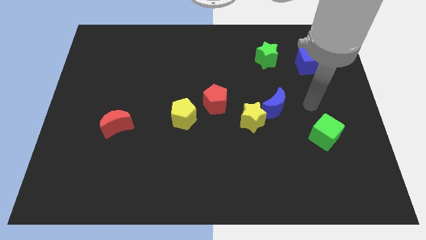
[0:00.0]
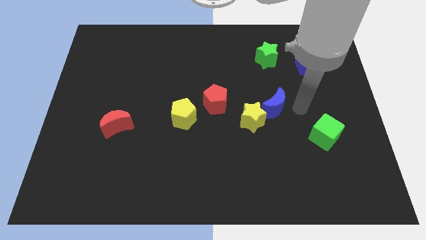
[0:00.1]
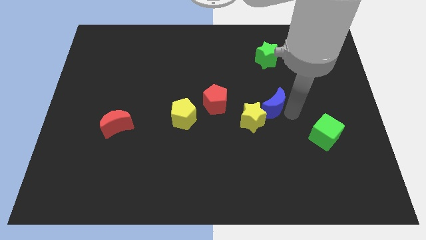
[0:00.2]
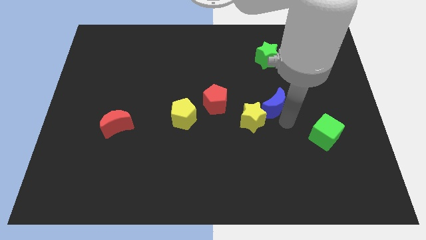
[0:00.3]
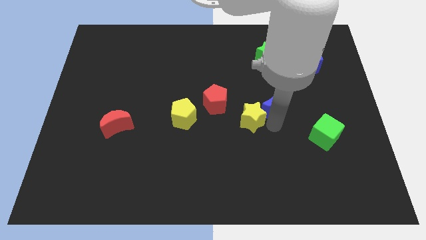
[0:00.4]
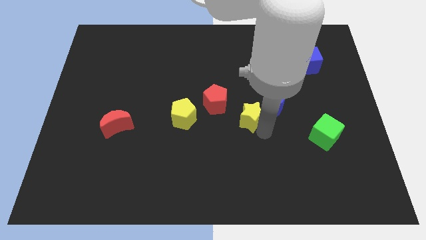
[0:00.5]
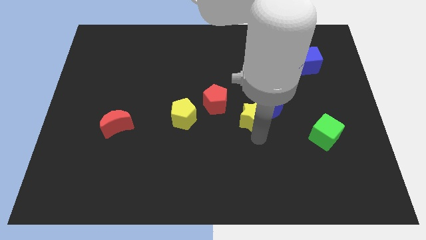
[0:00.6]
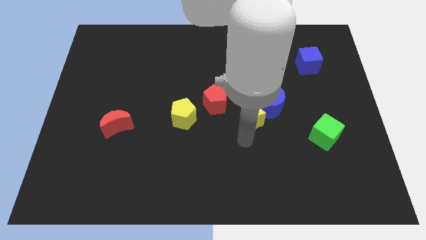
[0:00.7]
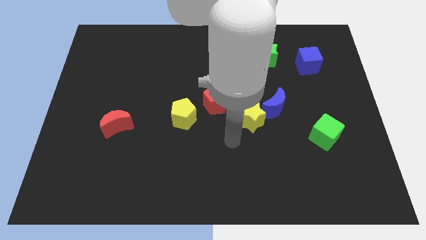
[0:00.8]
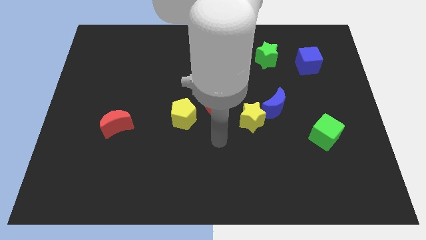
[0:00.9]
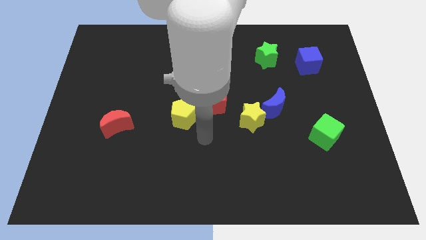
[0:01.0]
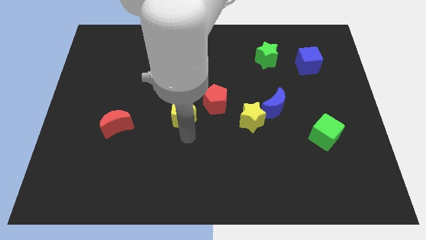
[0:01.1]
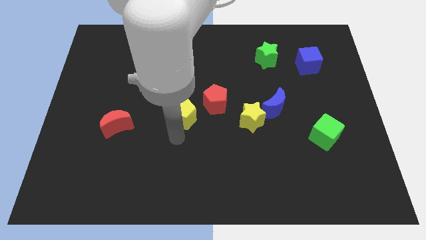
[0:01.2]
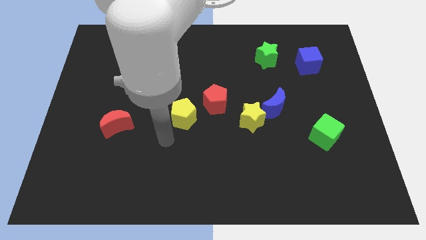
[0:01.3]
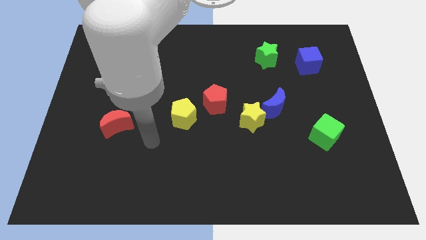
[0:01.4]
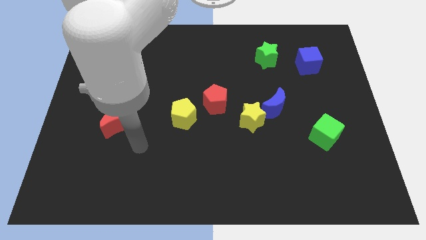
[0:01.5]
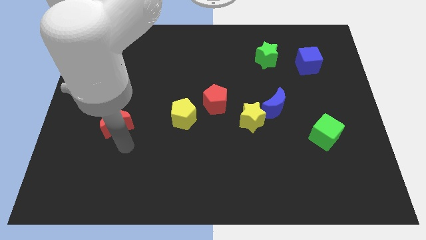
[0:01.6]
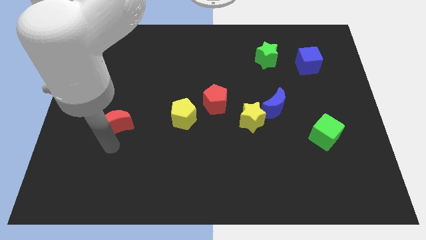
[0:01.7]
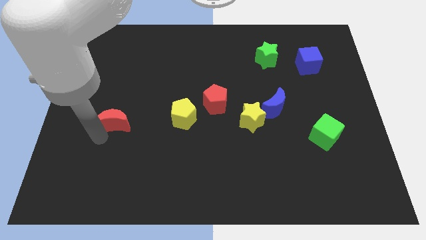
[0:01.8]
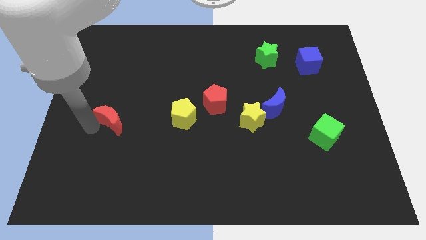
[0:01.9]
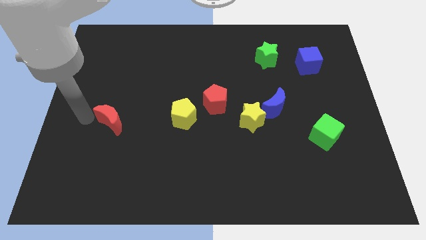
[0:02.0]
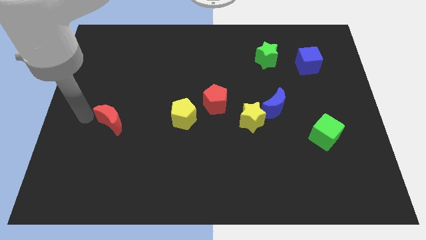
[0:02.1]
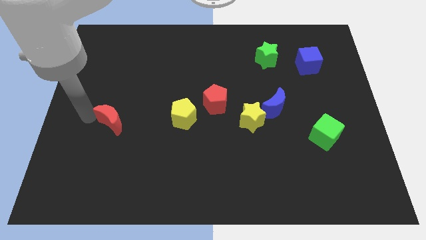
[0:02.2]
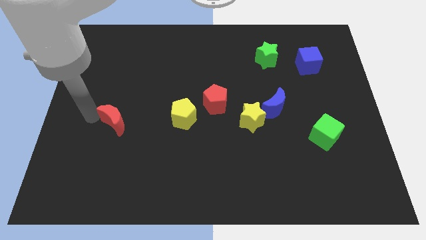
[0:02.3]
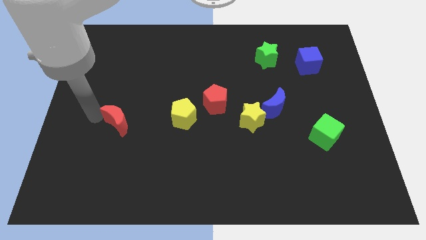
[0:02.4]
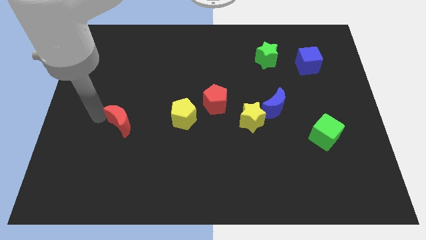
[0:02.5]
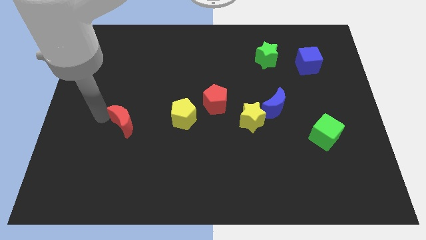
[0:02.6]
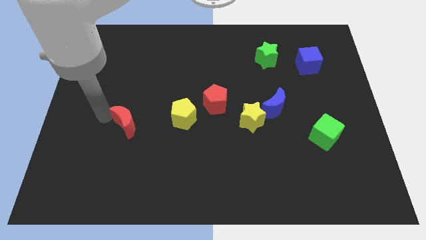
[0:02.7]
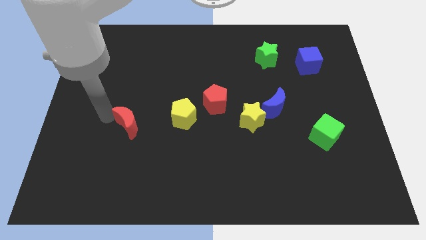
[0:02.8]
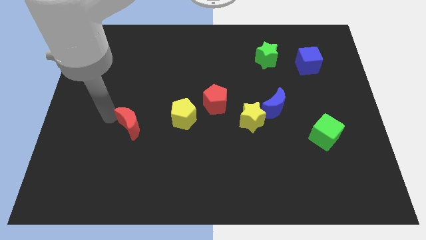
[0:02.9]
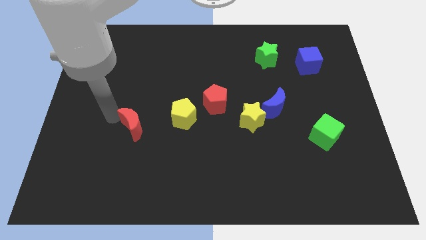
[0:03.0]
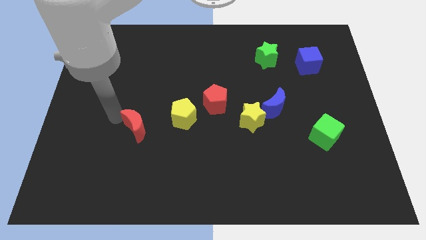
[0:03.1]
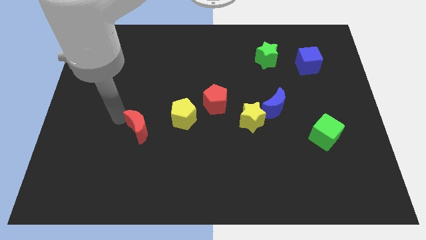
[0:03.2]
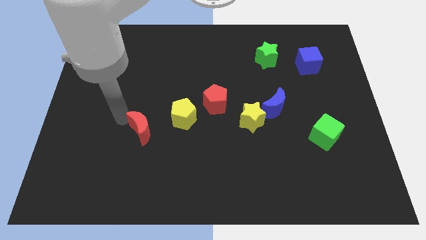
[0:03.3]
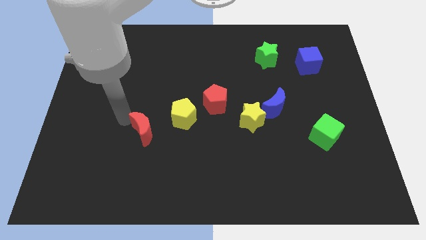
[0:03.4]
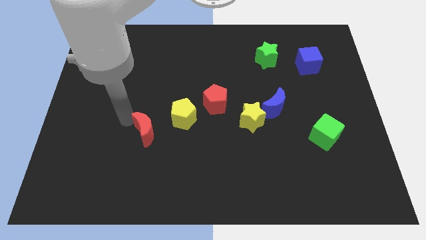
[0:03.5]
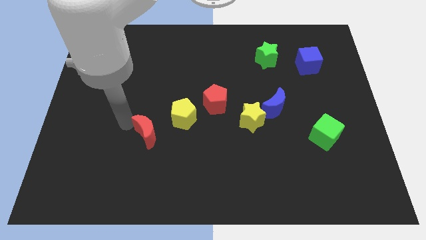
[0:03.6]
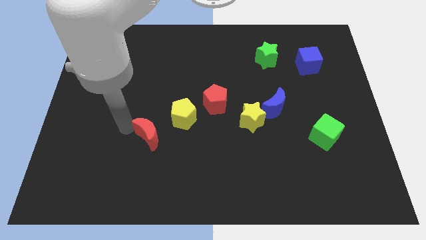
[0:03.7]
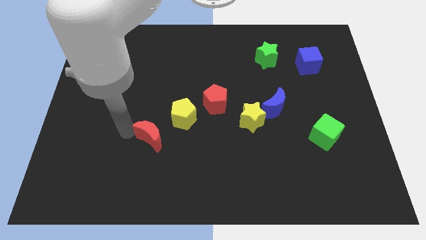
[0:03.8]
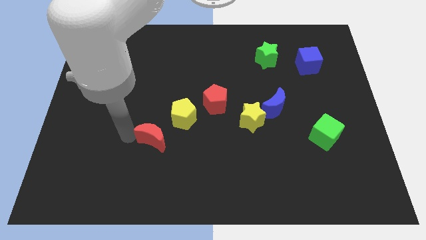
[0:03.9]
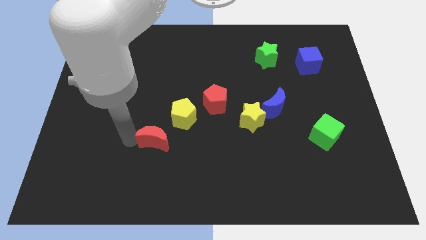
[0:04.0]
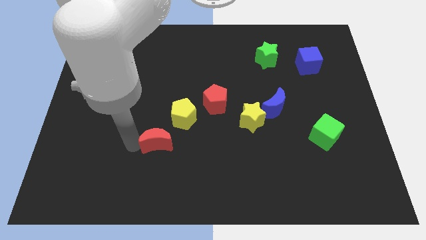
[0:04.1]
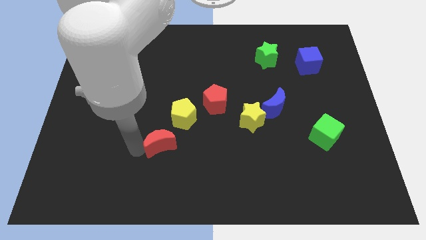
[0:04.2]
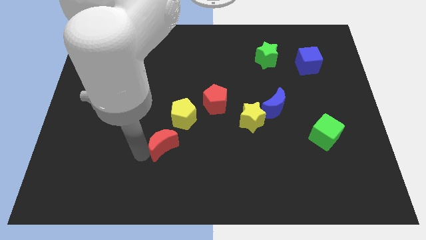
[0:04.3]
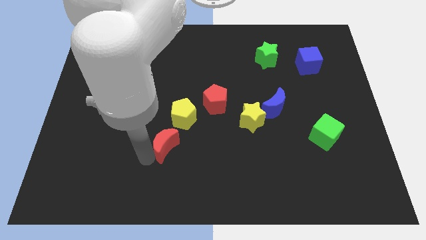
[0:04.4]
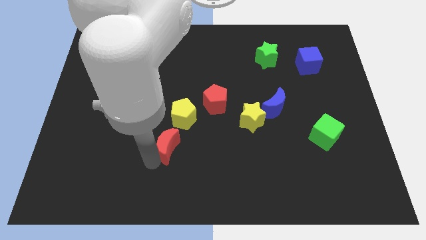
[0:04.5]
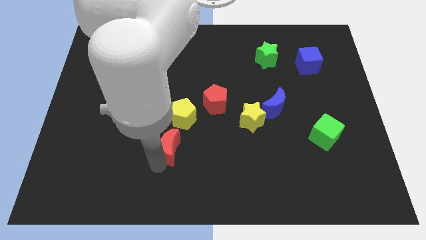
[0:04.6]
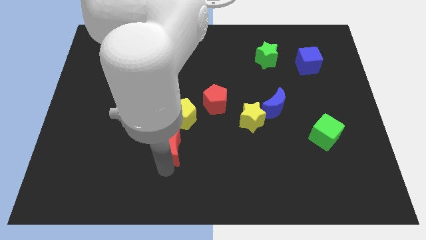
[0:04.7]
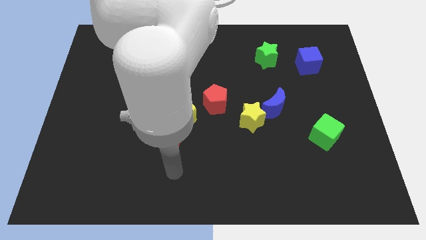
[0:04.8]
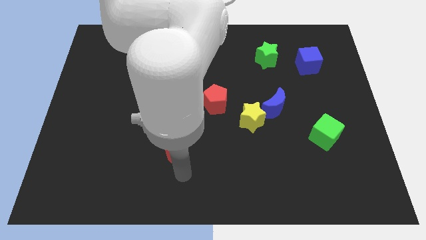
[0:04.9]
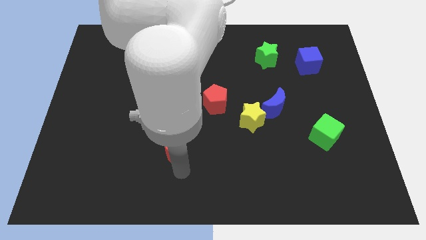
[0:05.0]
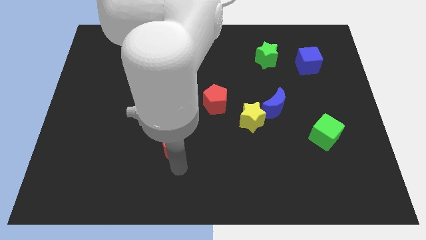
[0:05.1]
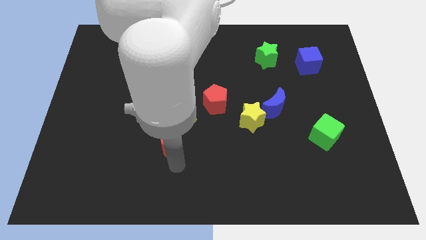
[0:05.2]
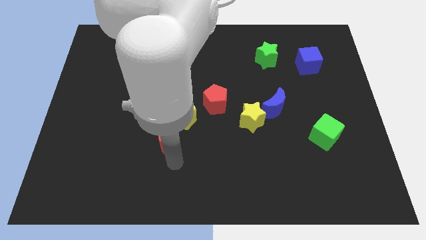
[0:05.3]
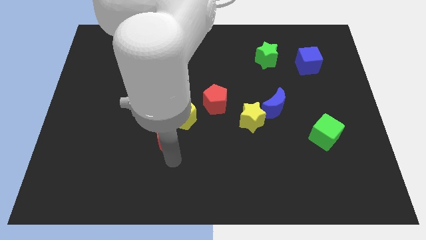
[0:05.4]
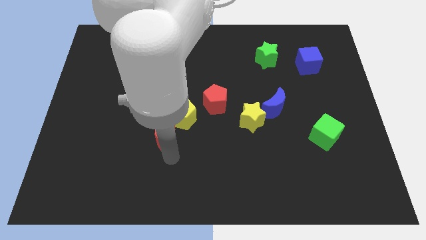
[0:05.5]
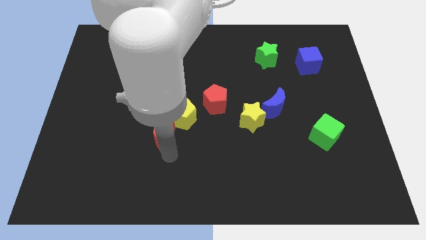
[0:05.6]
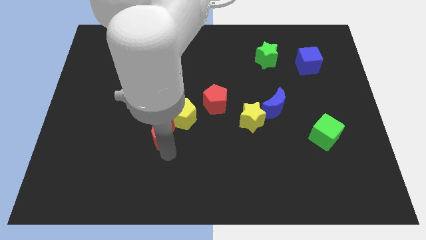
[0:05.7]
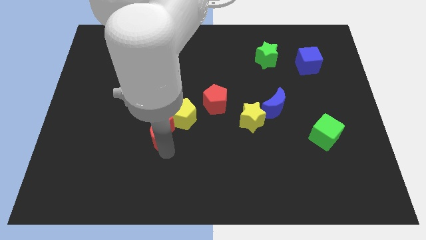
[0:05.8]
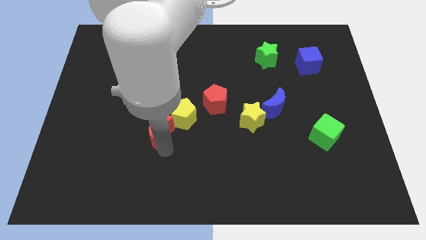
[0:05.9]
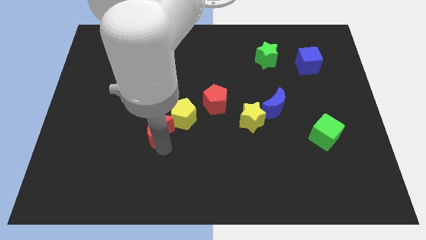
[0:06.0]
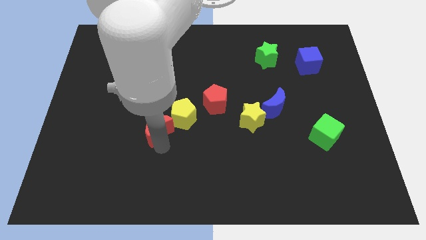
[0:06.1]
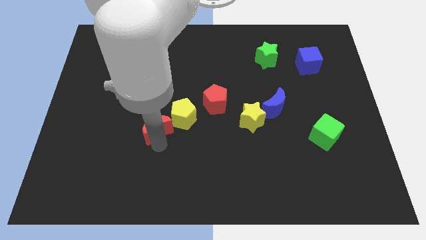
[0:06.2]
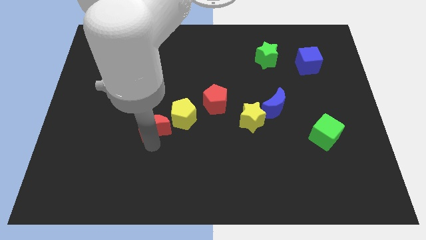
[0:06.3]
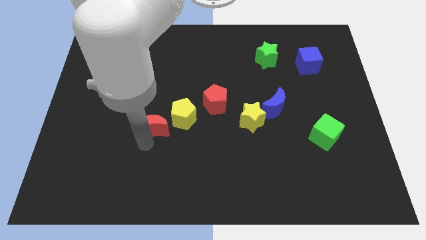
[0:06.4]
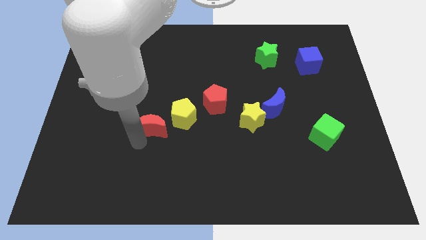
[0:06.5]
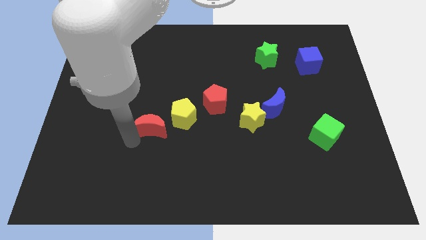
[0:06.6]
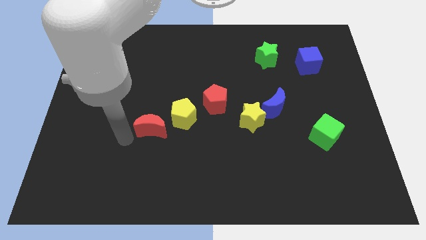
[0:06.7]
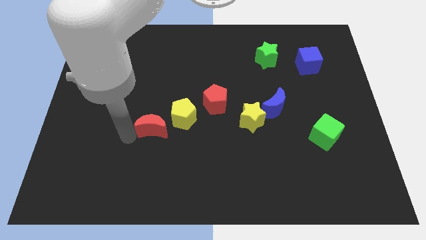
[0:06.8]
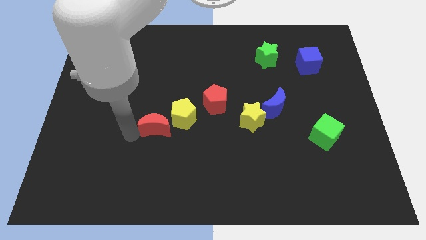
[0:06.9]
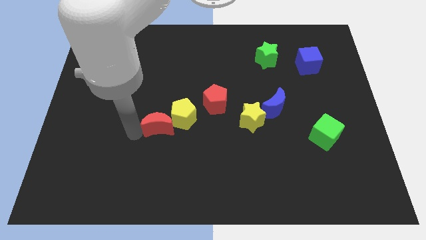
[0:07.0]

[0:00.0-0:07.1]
put the red moon close to the yellow pentagon
